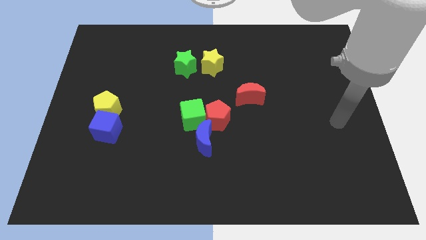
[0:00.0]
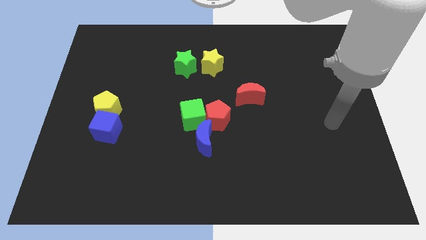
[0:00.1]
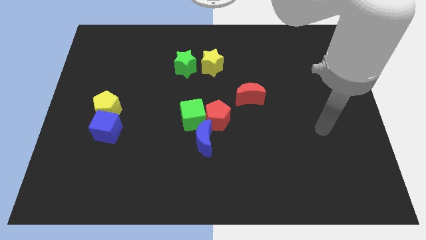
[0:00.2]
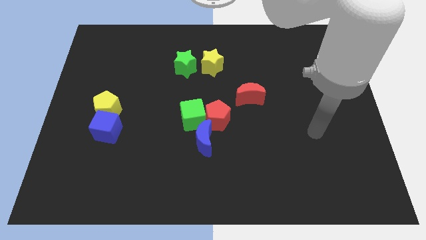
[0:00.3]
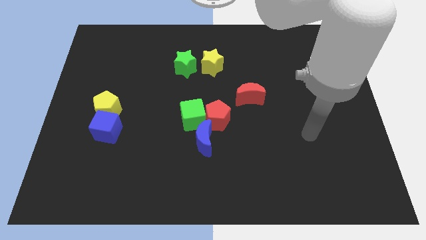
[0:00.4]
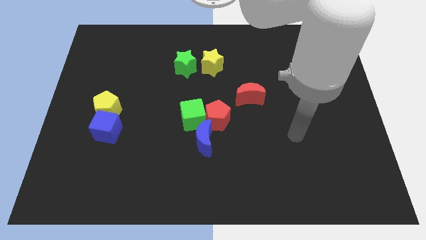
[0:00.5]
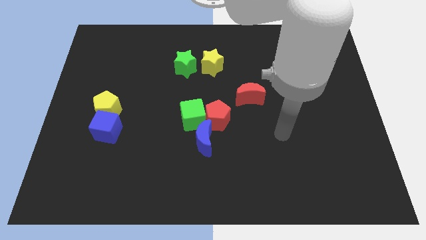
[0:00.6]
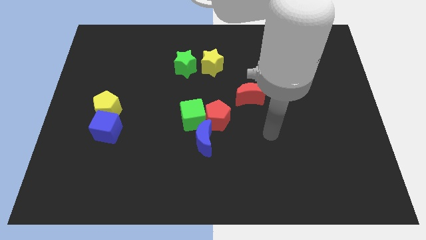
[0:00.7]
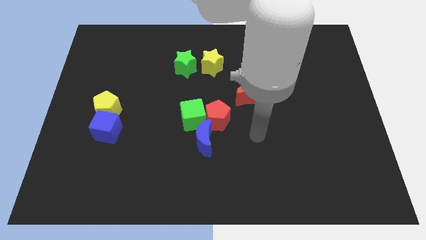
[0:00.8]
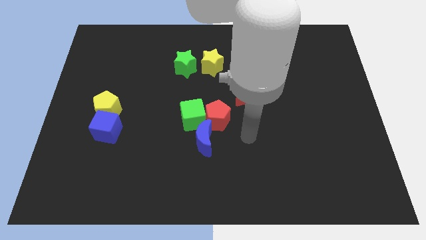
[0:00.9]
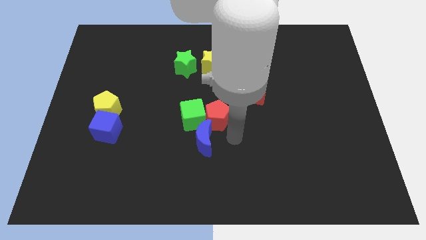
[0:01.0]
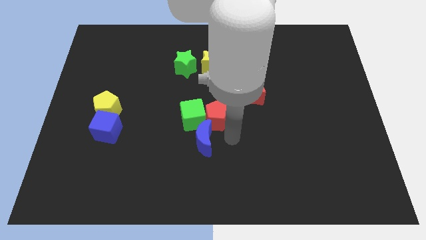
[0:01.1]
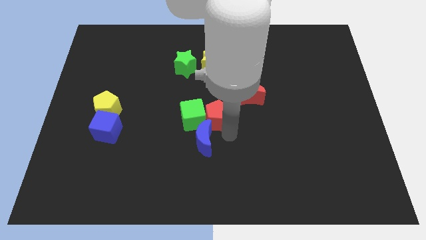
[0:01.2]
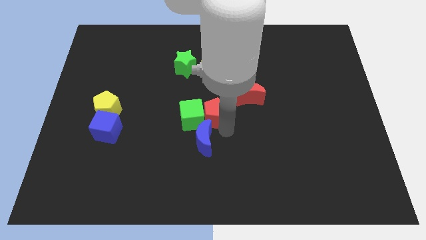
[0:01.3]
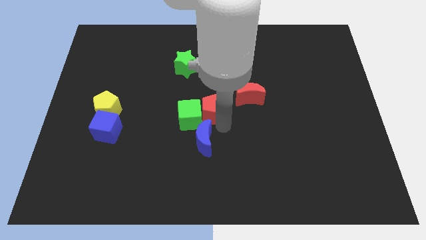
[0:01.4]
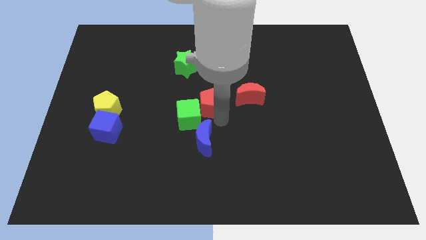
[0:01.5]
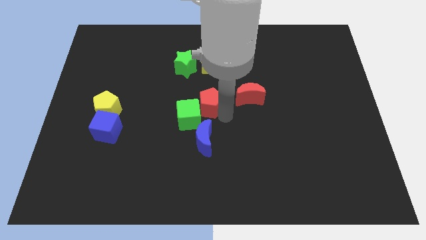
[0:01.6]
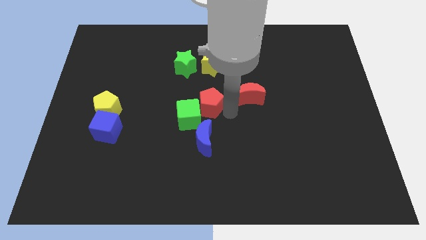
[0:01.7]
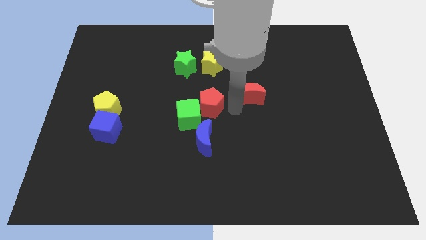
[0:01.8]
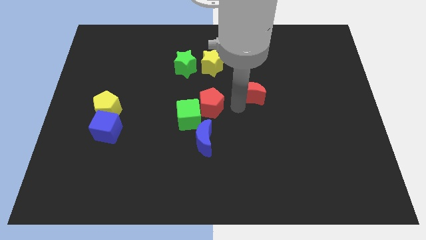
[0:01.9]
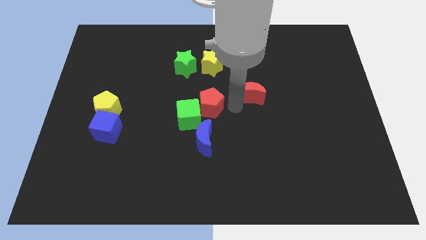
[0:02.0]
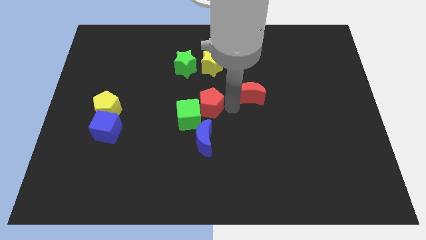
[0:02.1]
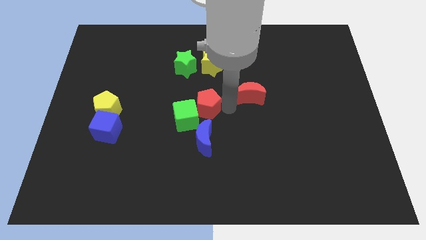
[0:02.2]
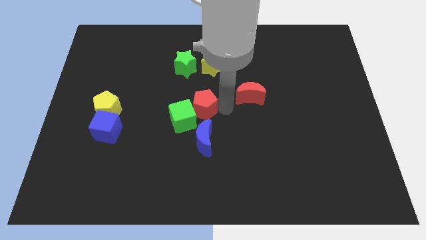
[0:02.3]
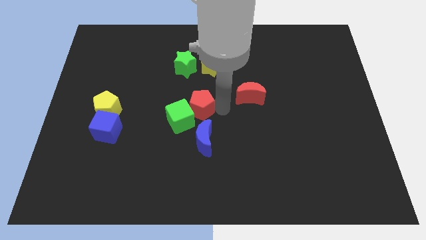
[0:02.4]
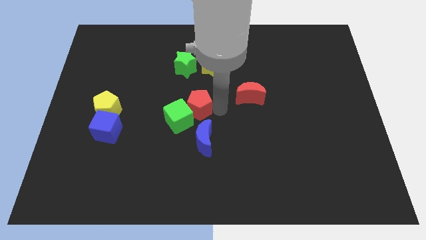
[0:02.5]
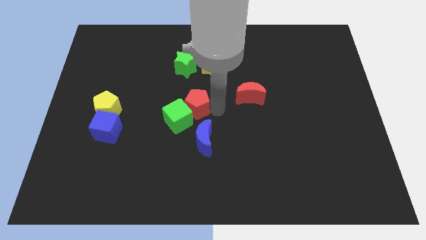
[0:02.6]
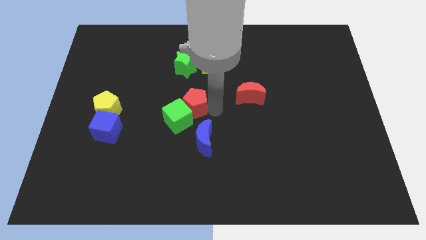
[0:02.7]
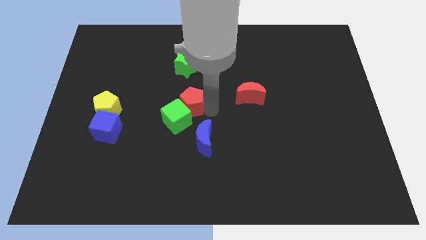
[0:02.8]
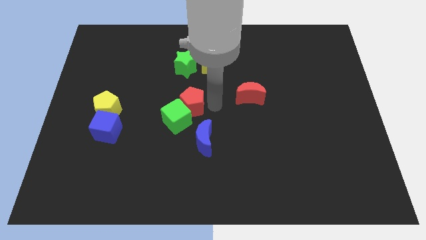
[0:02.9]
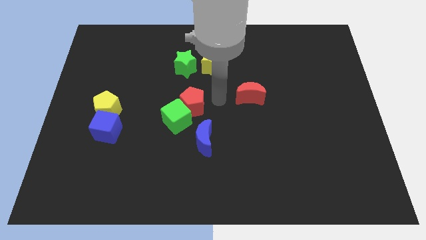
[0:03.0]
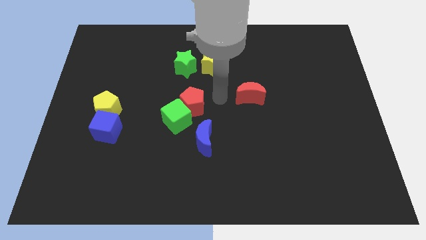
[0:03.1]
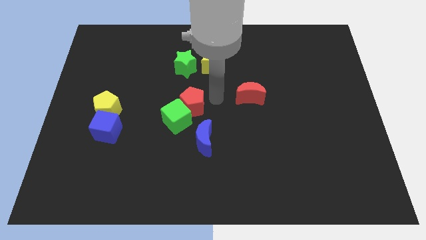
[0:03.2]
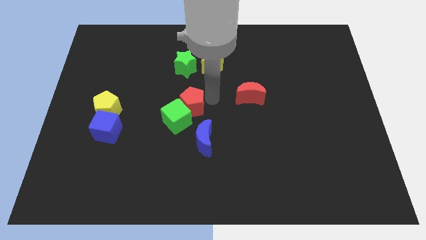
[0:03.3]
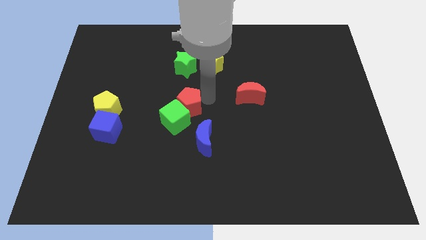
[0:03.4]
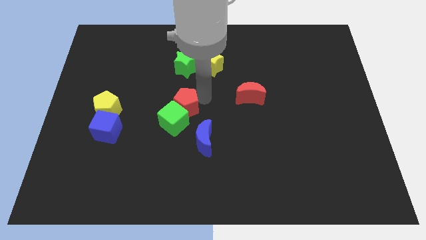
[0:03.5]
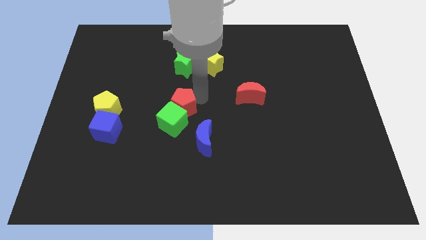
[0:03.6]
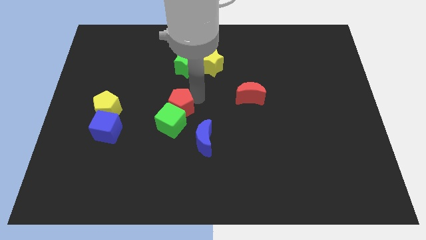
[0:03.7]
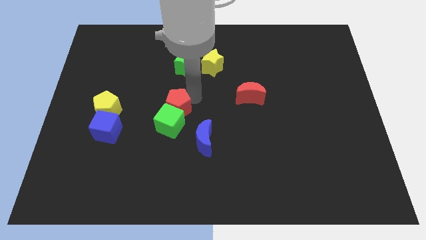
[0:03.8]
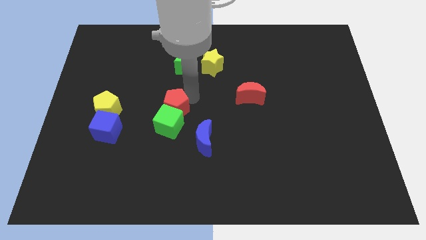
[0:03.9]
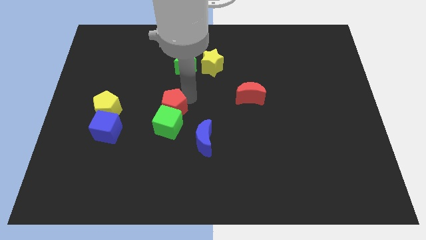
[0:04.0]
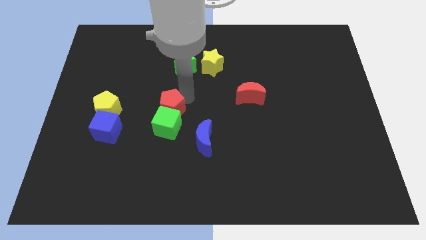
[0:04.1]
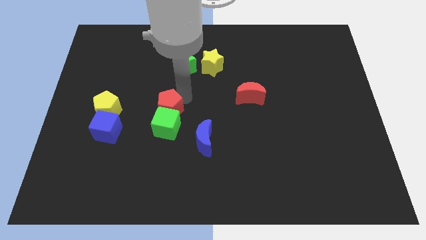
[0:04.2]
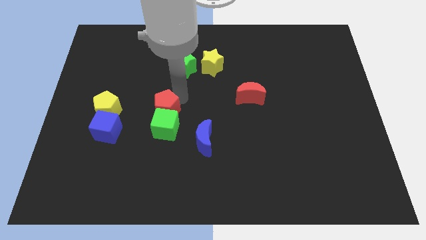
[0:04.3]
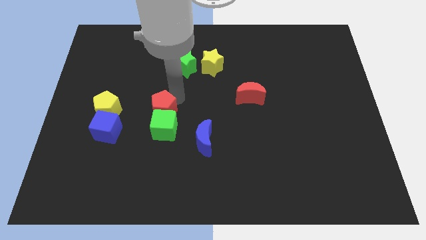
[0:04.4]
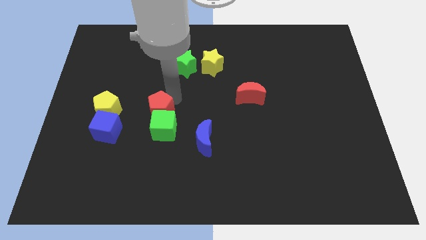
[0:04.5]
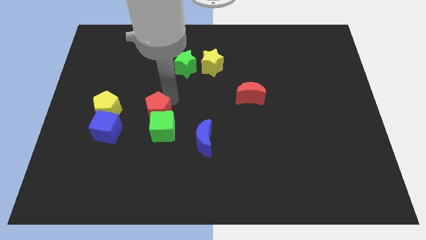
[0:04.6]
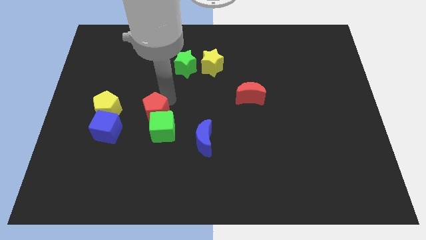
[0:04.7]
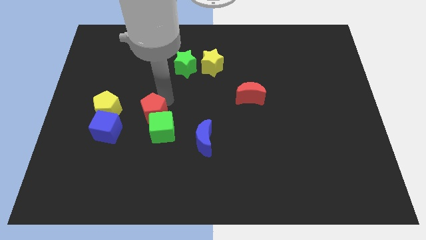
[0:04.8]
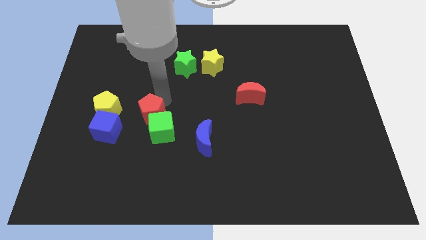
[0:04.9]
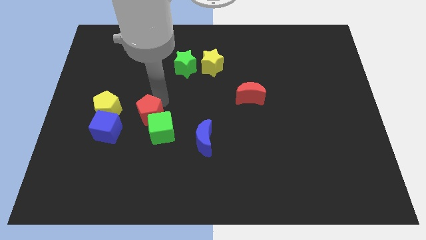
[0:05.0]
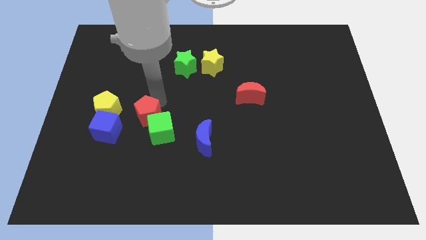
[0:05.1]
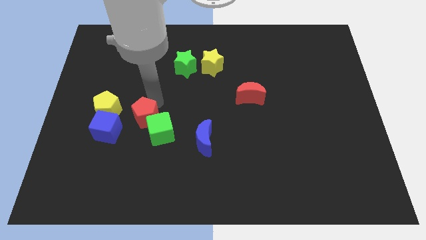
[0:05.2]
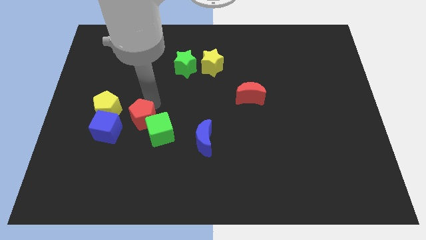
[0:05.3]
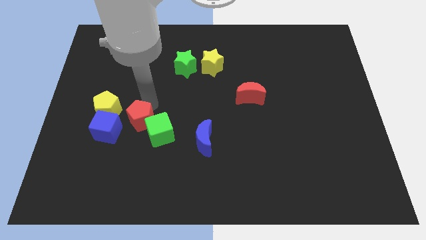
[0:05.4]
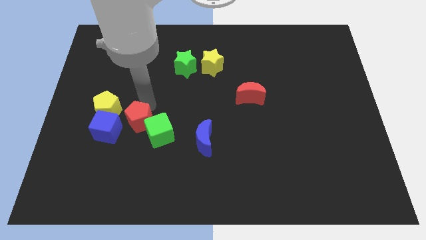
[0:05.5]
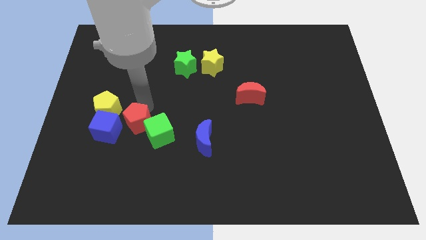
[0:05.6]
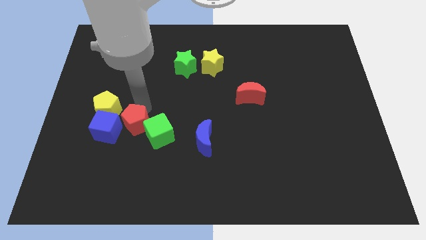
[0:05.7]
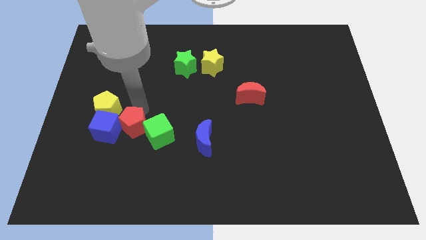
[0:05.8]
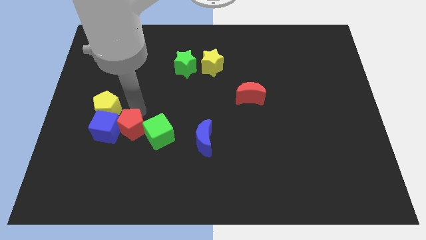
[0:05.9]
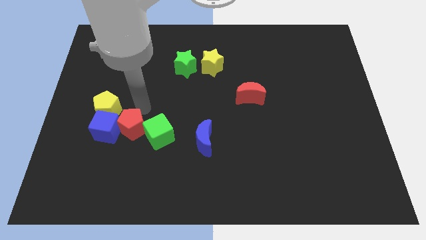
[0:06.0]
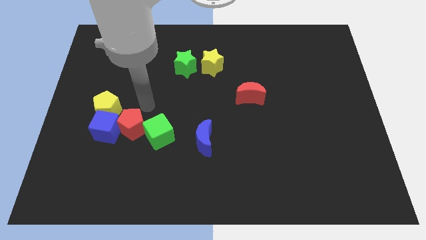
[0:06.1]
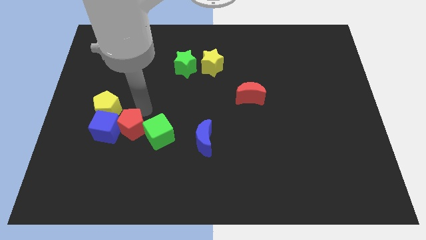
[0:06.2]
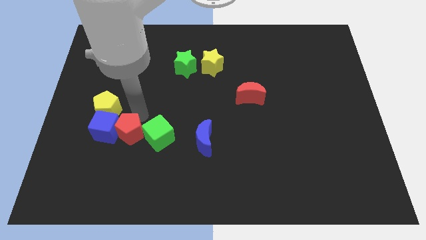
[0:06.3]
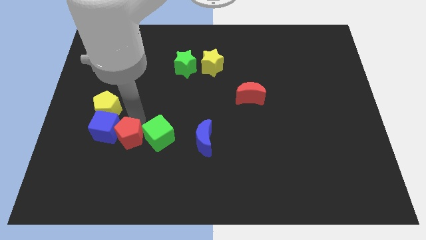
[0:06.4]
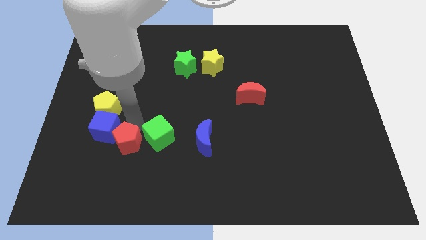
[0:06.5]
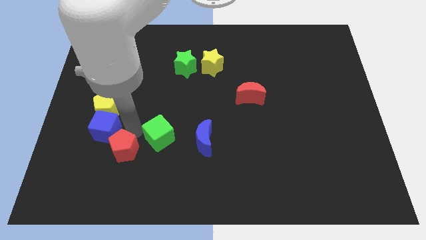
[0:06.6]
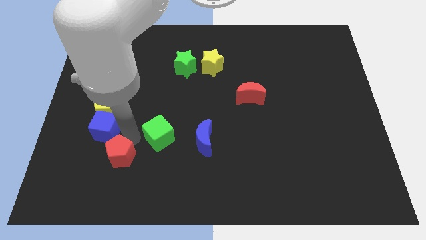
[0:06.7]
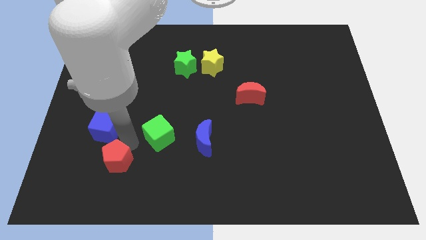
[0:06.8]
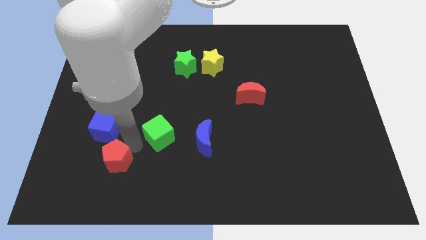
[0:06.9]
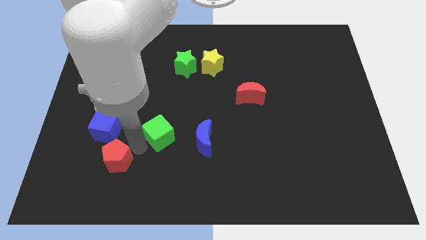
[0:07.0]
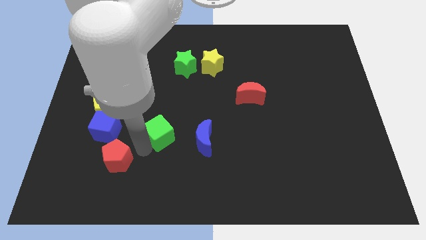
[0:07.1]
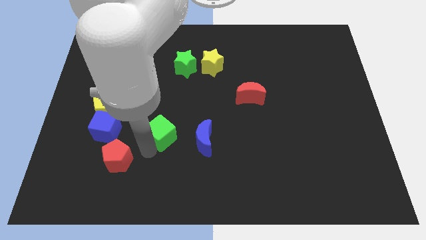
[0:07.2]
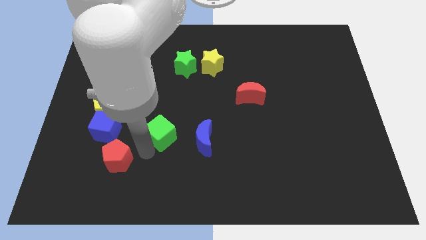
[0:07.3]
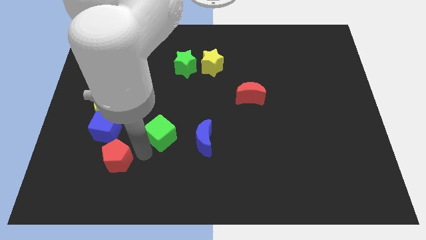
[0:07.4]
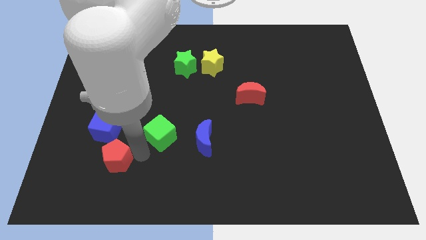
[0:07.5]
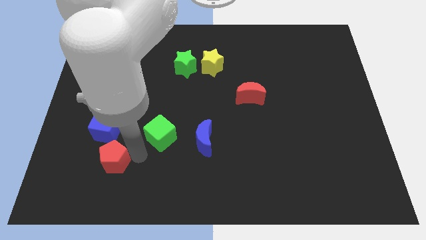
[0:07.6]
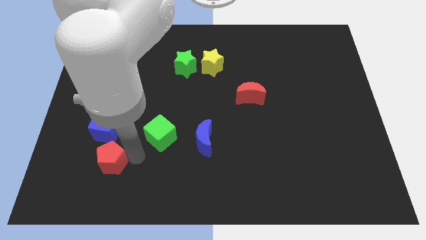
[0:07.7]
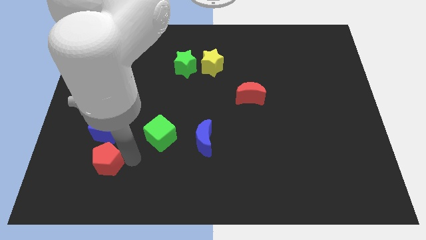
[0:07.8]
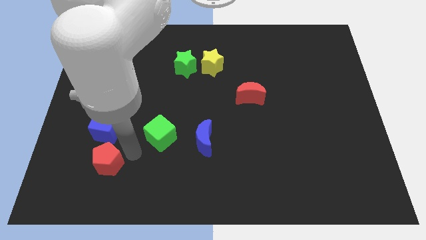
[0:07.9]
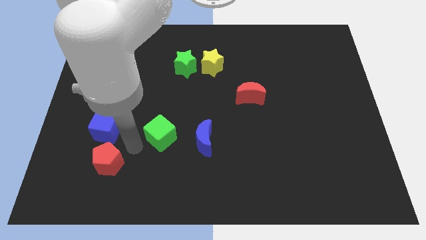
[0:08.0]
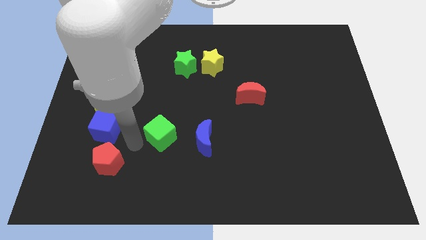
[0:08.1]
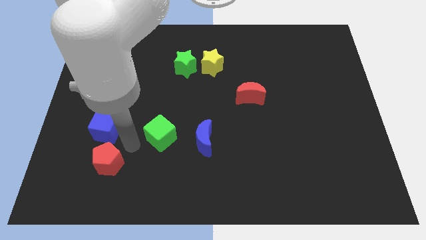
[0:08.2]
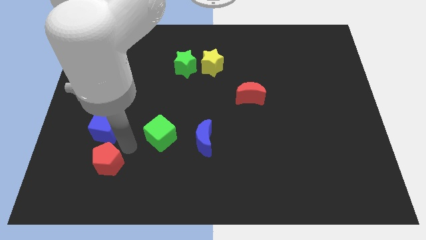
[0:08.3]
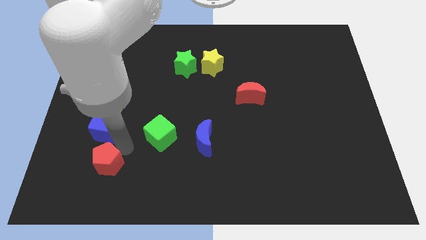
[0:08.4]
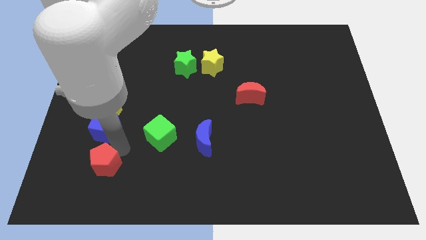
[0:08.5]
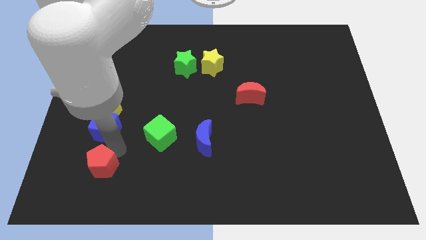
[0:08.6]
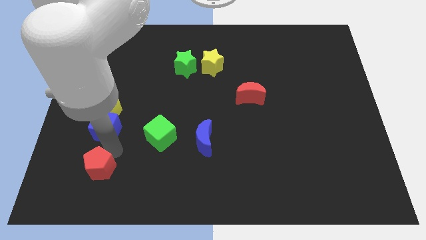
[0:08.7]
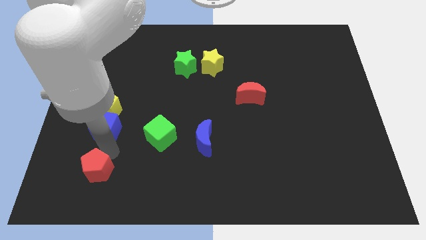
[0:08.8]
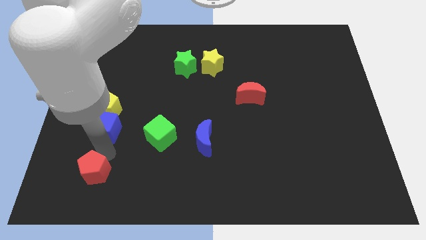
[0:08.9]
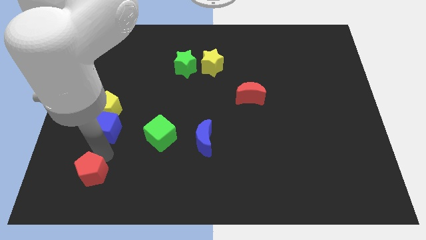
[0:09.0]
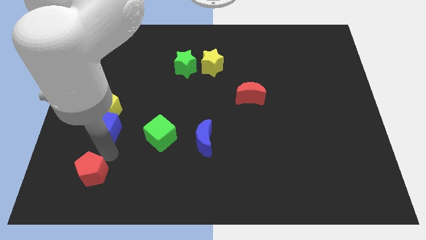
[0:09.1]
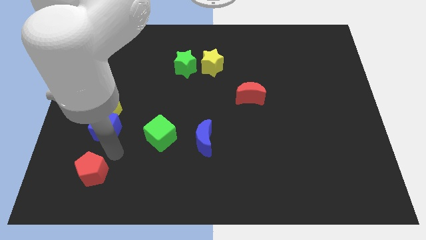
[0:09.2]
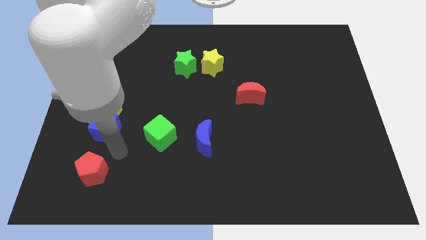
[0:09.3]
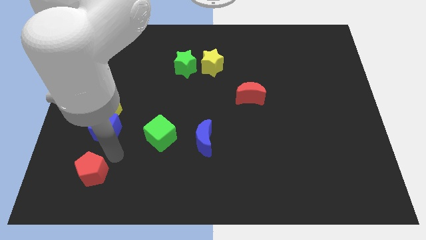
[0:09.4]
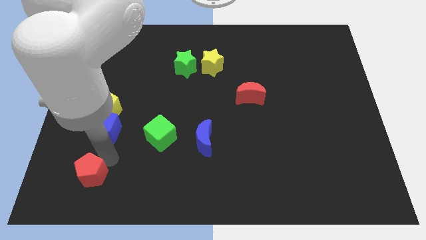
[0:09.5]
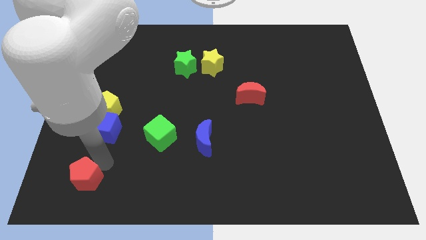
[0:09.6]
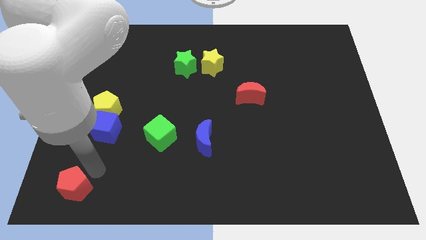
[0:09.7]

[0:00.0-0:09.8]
slide the red pentagon to the bottom left
